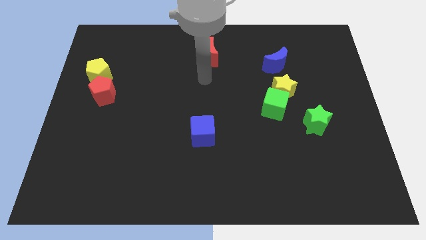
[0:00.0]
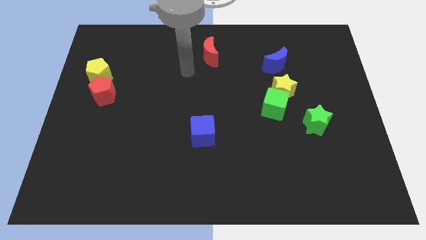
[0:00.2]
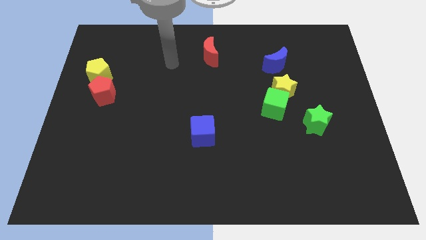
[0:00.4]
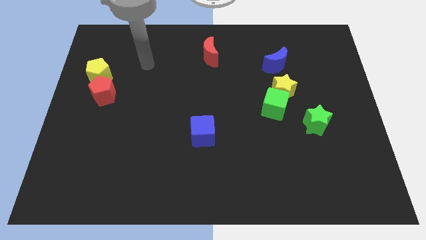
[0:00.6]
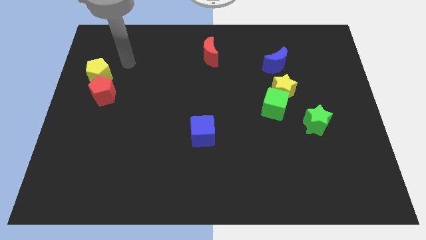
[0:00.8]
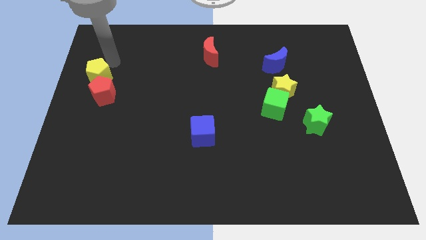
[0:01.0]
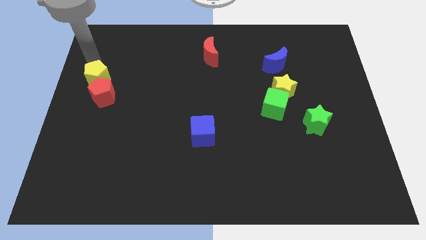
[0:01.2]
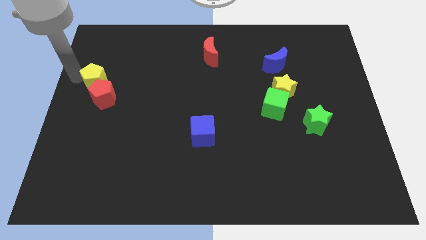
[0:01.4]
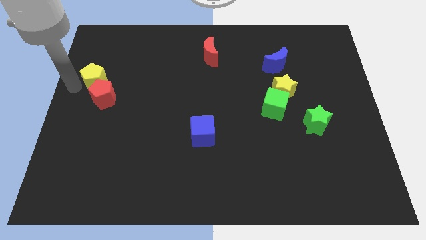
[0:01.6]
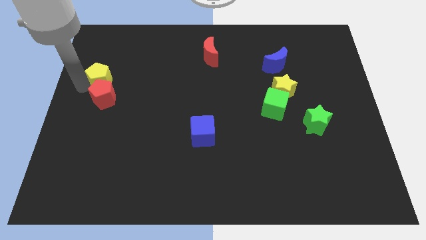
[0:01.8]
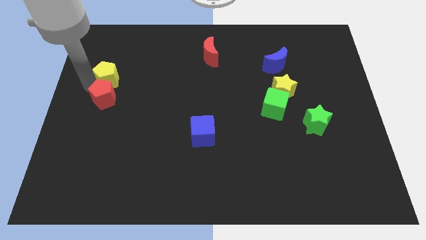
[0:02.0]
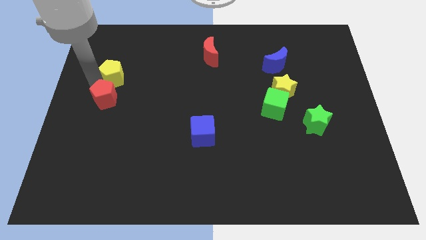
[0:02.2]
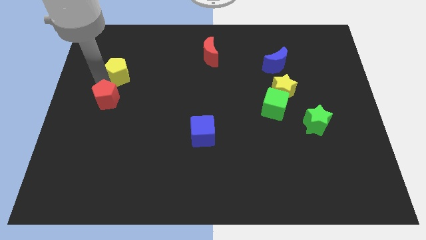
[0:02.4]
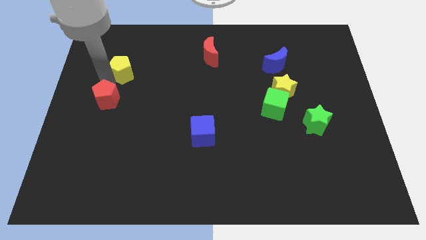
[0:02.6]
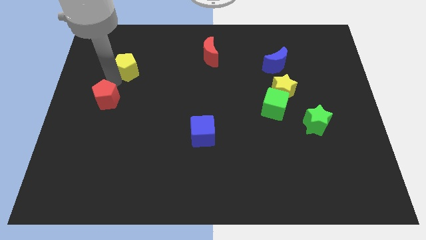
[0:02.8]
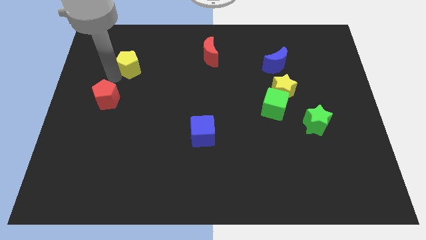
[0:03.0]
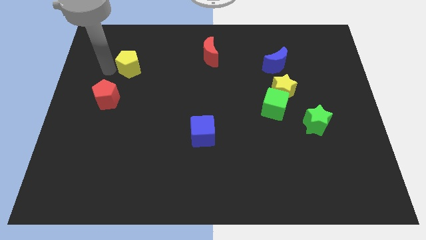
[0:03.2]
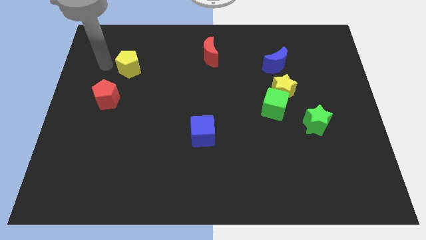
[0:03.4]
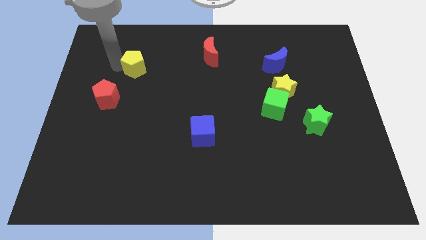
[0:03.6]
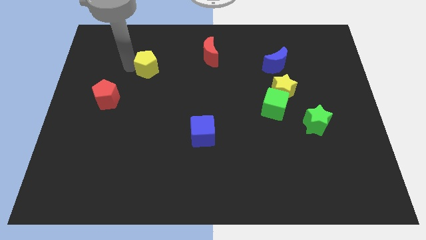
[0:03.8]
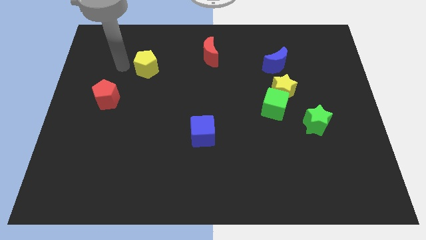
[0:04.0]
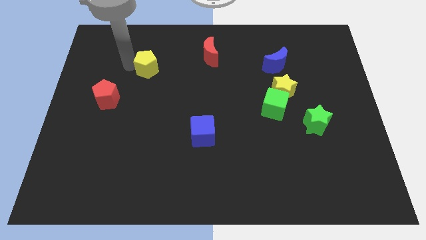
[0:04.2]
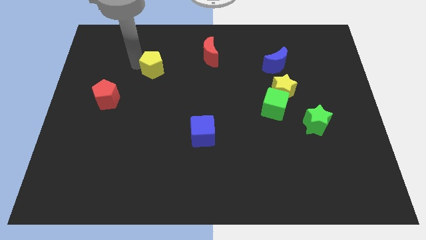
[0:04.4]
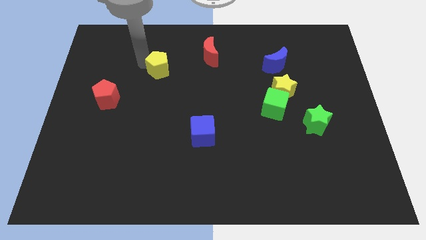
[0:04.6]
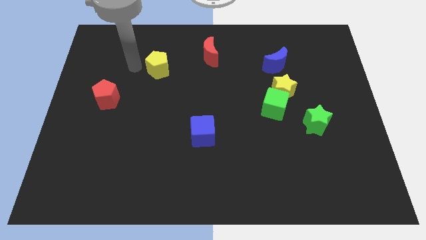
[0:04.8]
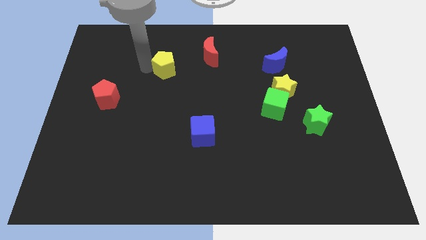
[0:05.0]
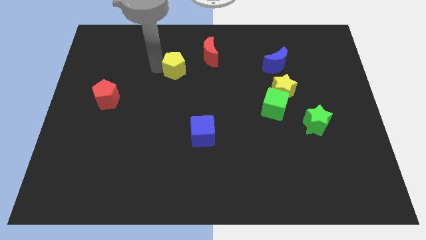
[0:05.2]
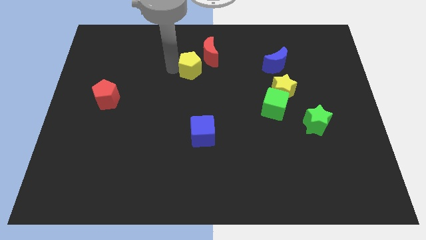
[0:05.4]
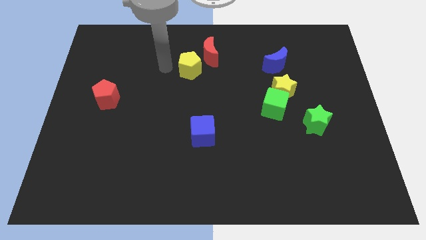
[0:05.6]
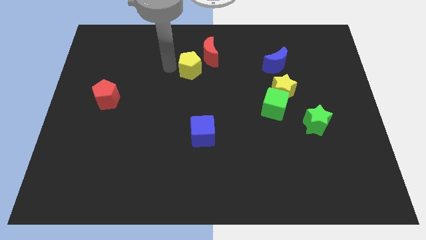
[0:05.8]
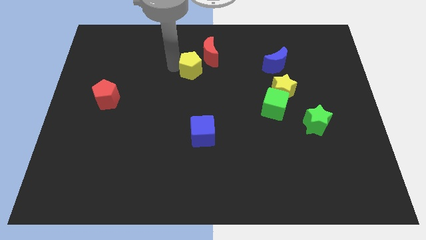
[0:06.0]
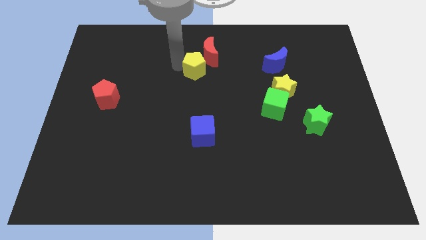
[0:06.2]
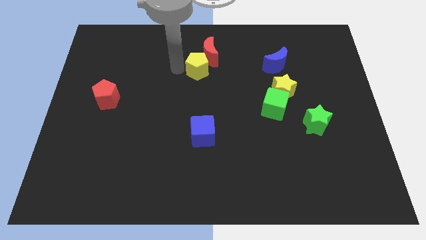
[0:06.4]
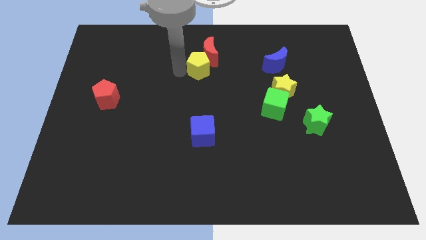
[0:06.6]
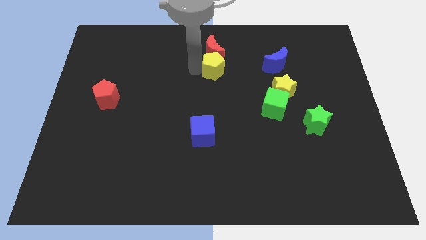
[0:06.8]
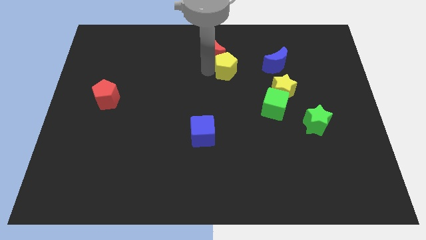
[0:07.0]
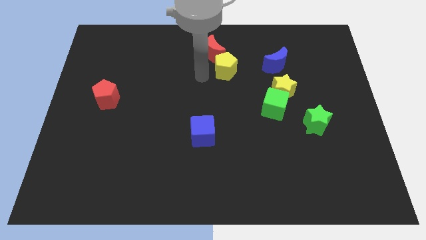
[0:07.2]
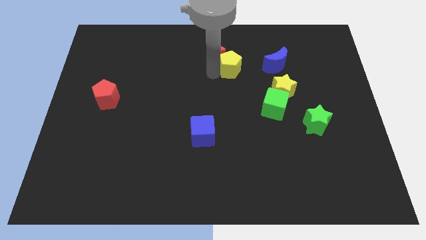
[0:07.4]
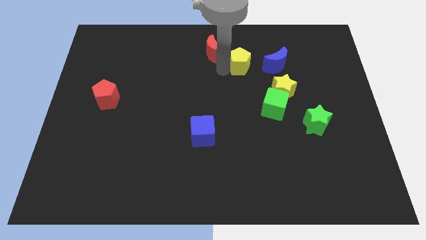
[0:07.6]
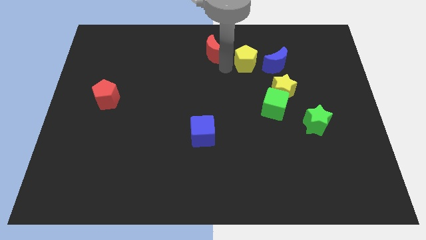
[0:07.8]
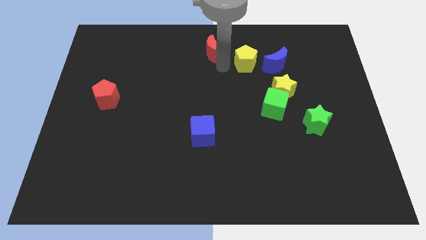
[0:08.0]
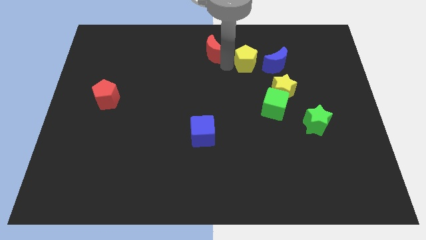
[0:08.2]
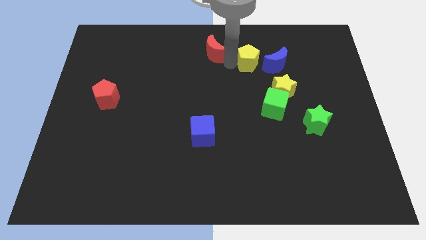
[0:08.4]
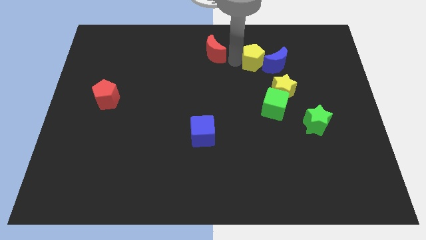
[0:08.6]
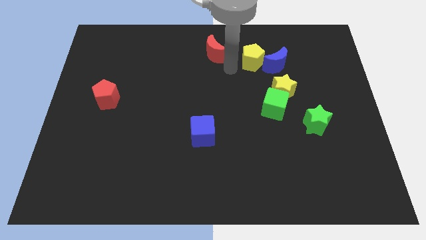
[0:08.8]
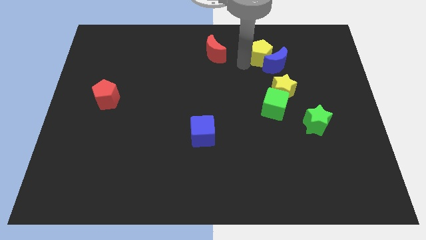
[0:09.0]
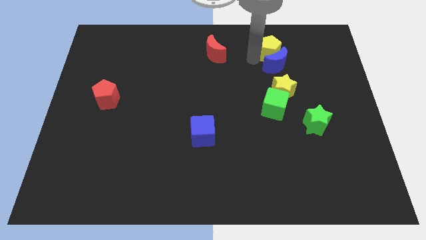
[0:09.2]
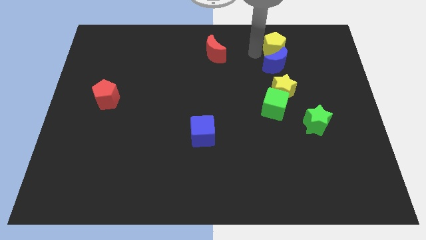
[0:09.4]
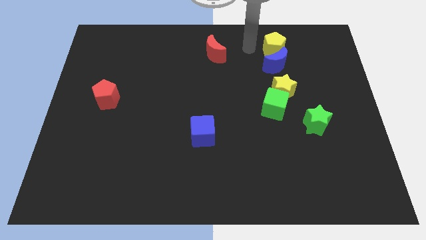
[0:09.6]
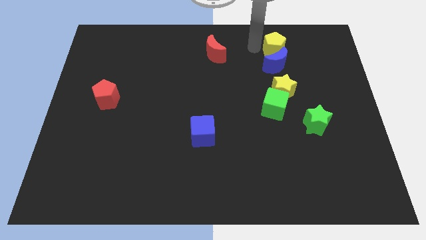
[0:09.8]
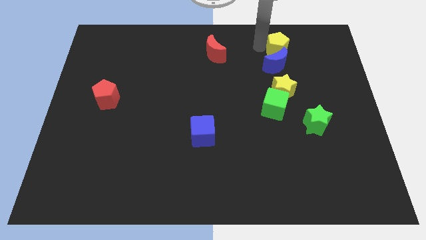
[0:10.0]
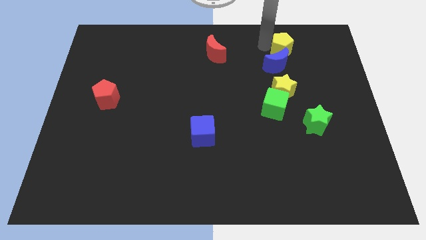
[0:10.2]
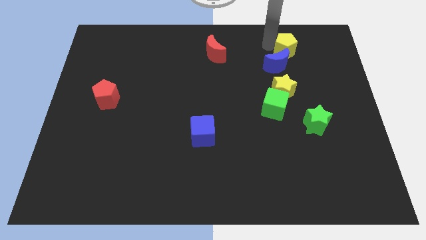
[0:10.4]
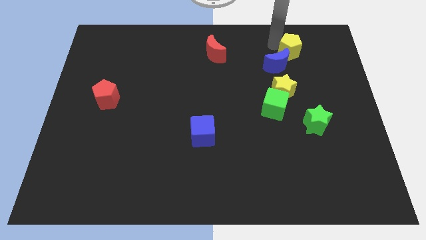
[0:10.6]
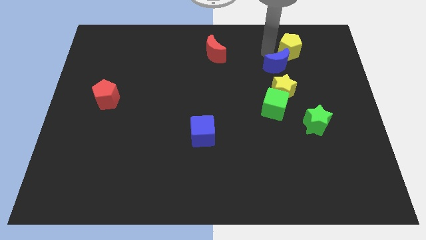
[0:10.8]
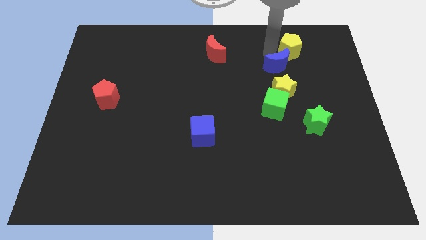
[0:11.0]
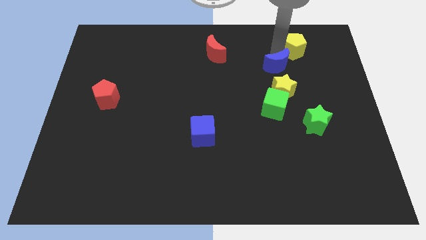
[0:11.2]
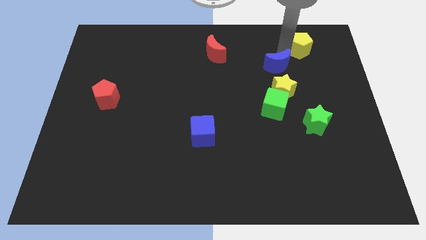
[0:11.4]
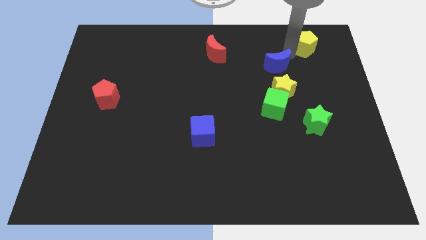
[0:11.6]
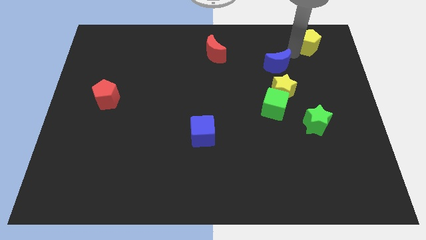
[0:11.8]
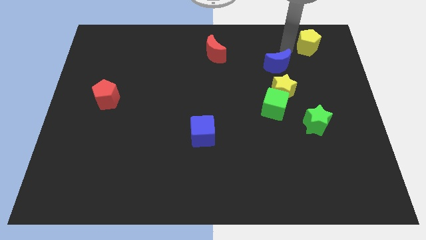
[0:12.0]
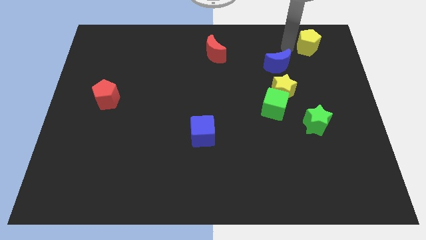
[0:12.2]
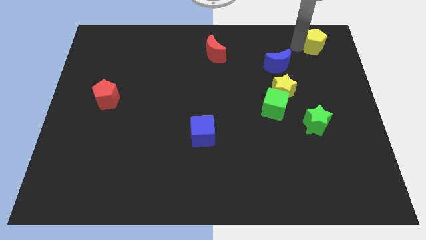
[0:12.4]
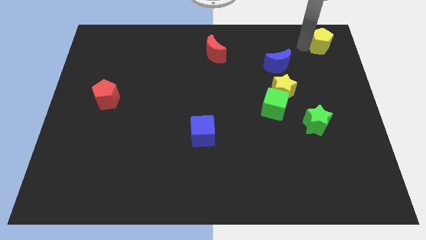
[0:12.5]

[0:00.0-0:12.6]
move the yellow pentagon to the top right corner
